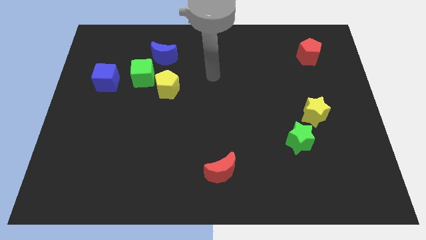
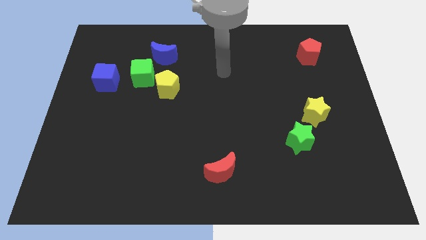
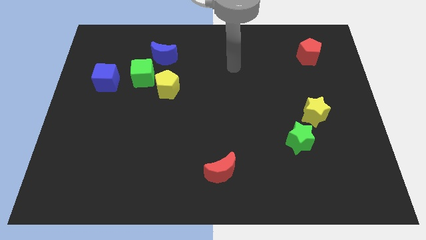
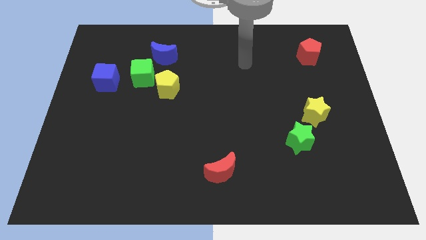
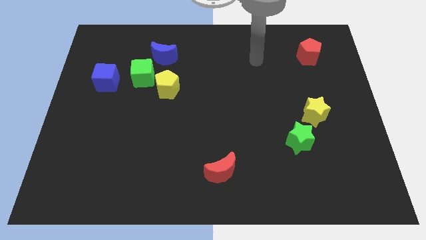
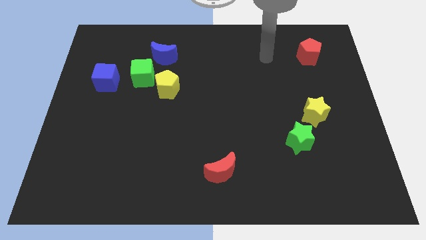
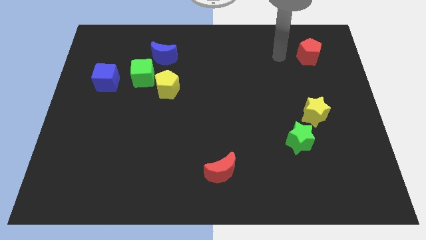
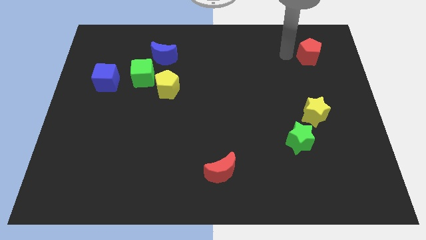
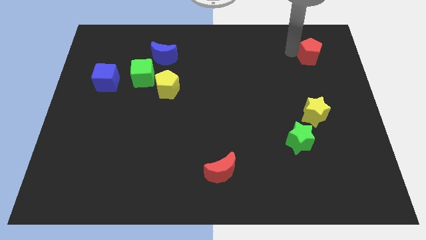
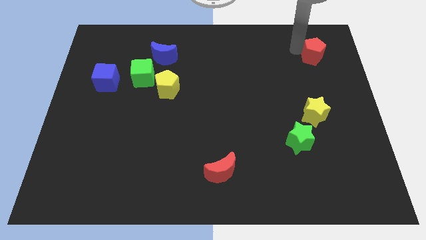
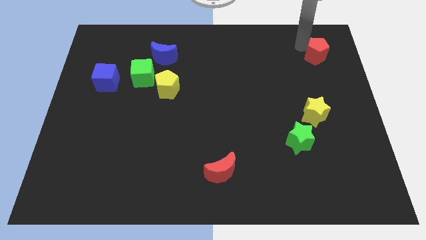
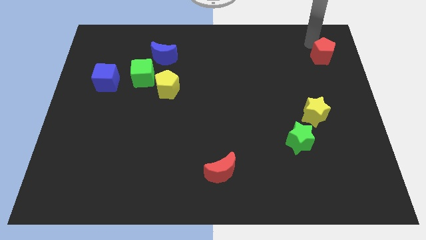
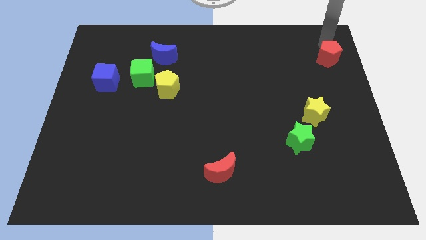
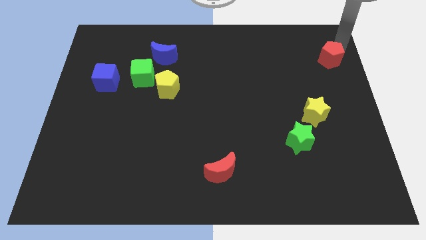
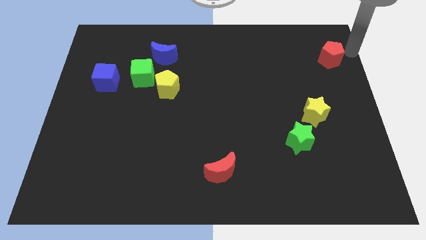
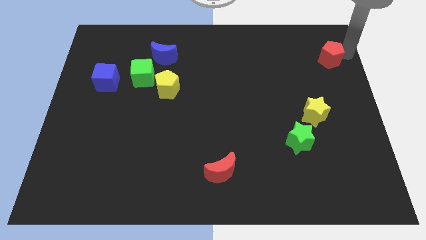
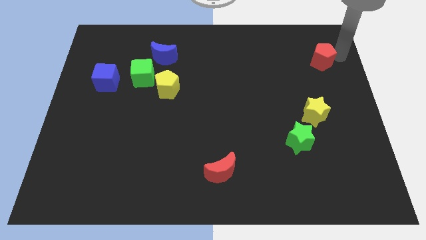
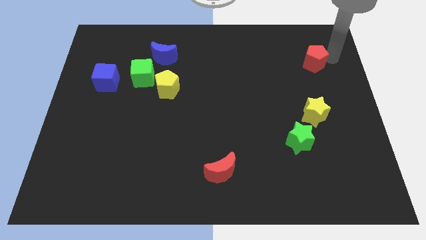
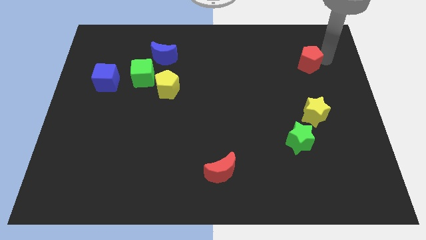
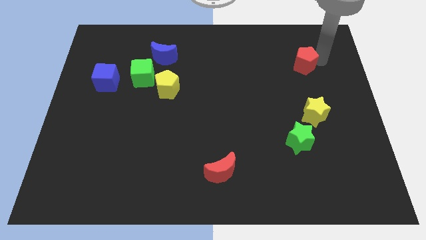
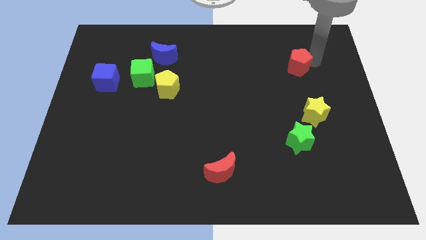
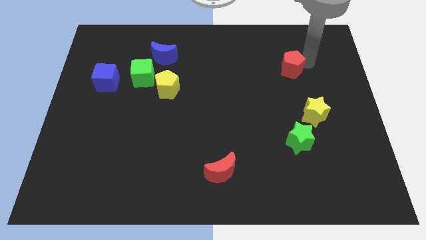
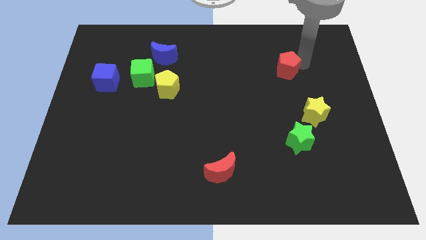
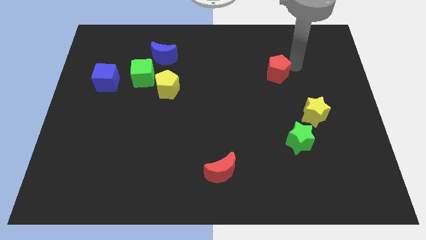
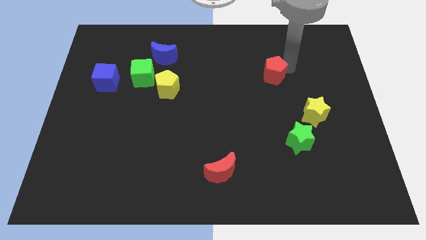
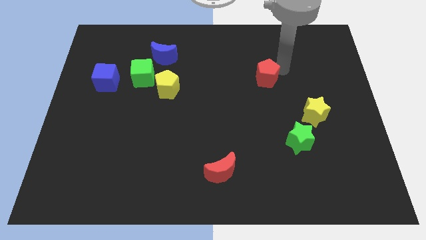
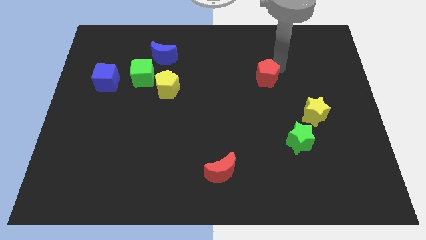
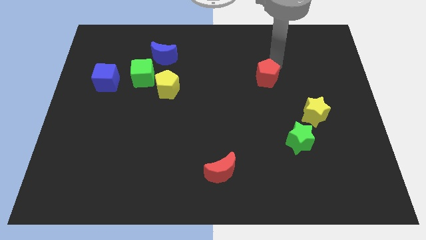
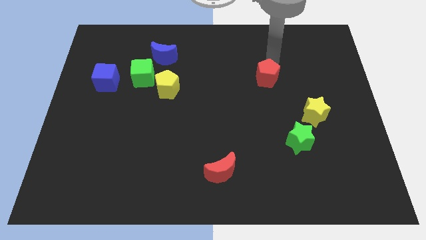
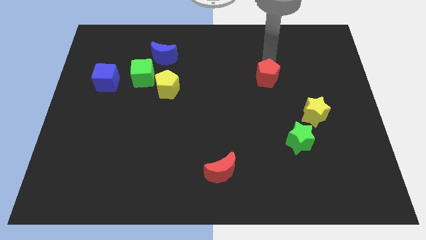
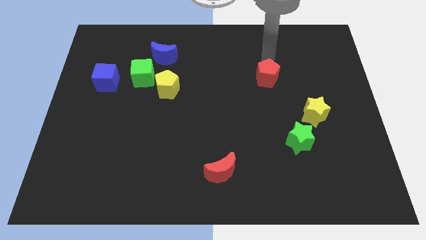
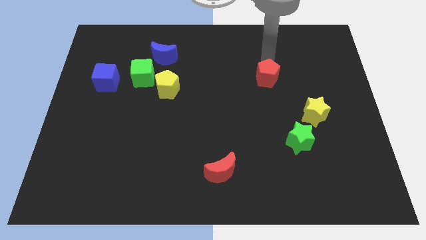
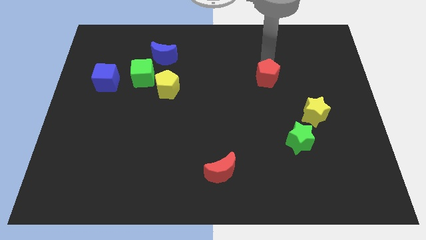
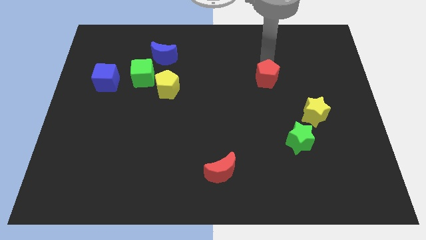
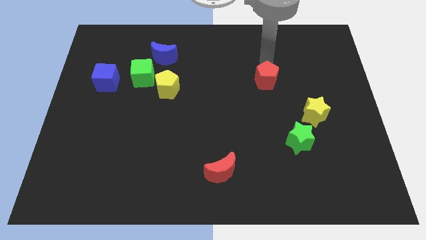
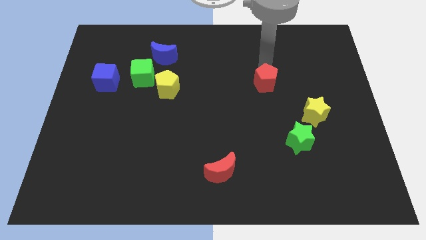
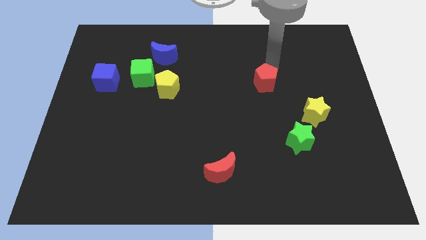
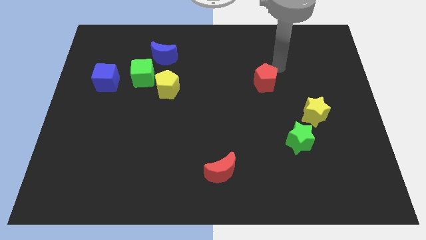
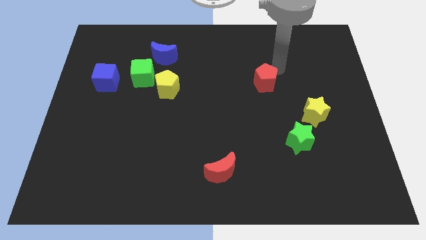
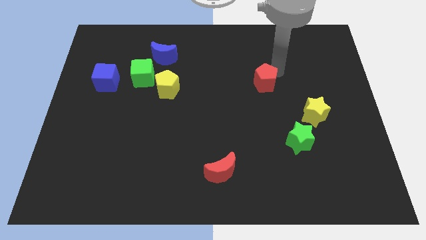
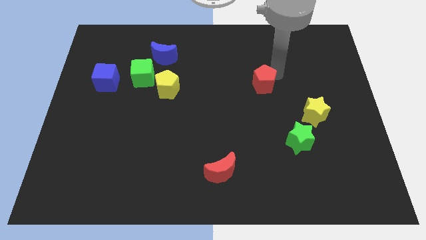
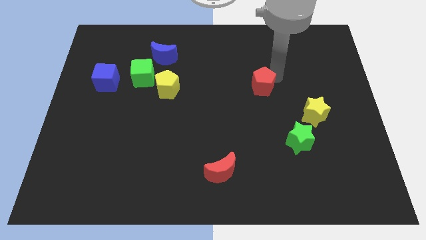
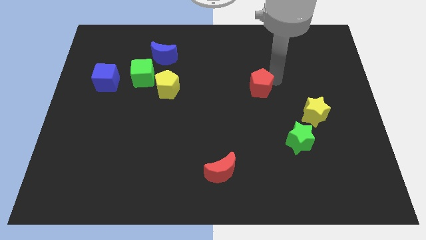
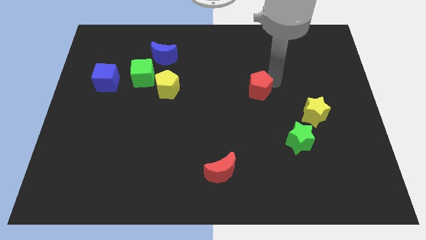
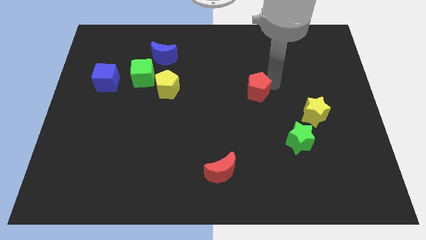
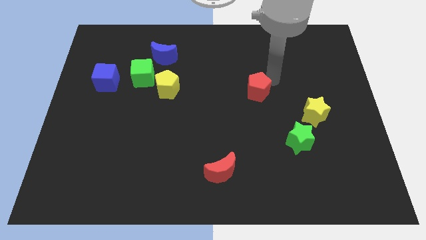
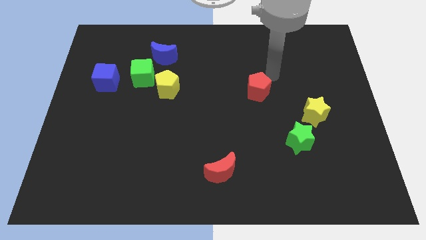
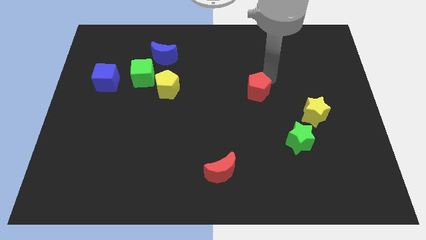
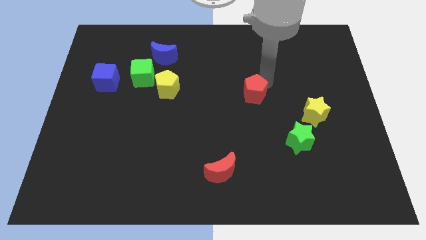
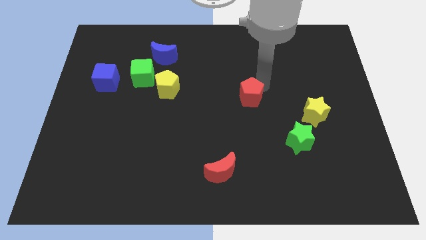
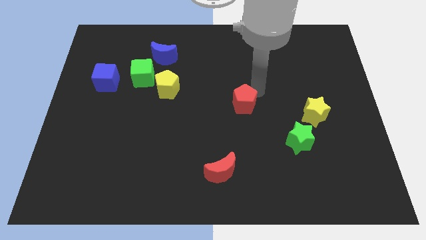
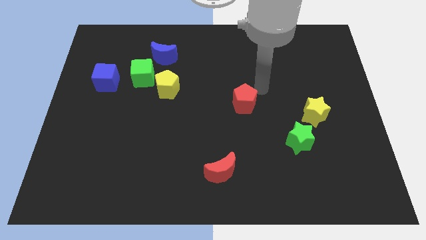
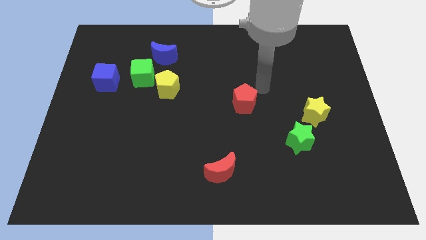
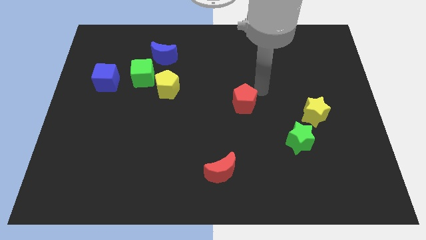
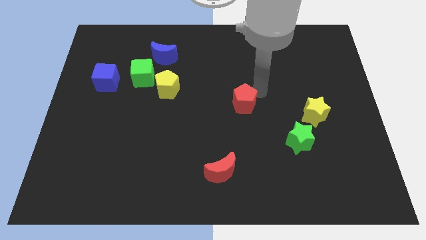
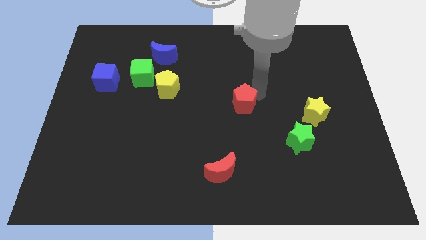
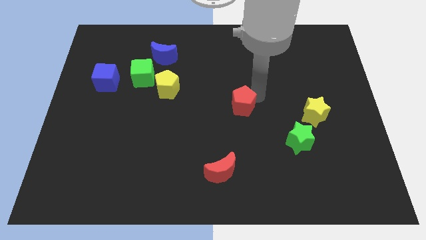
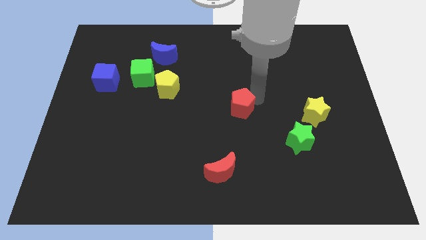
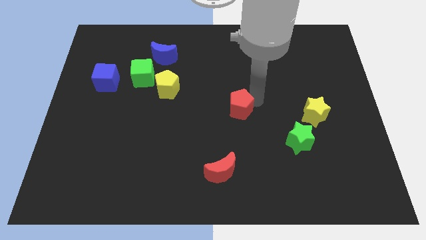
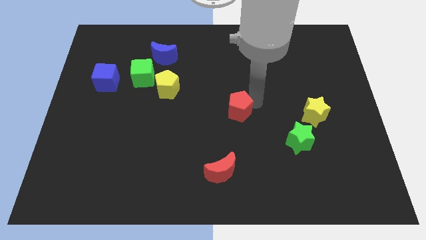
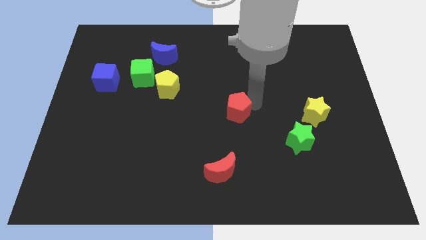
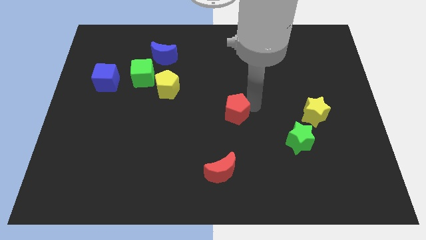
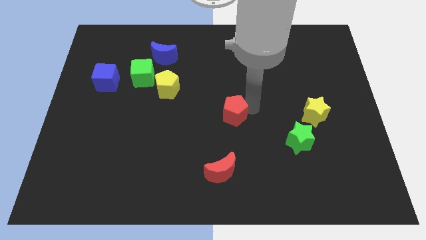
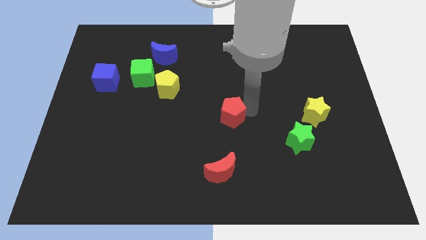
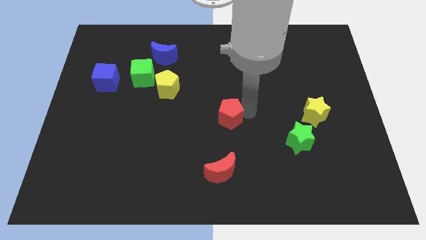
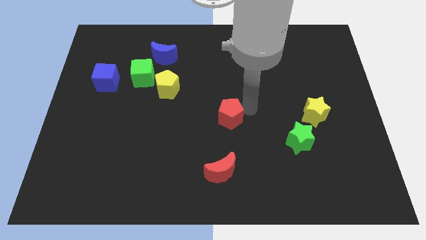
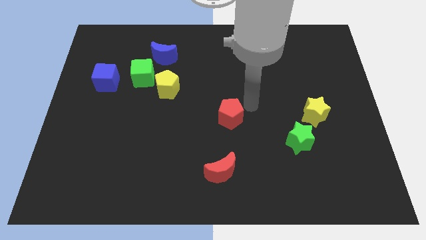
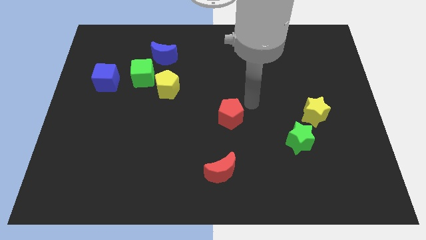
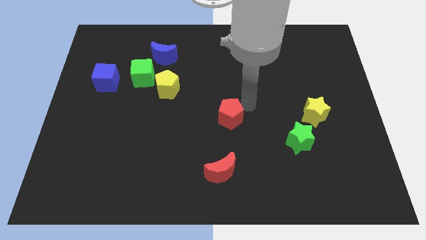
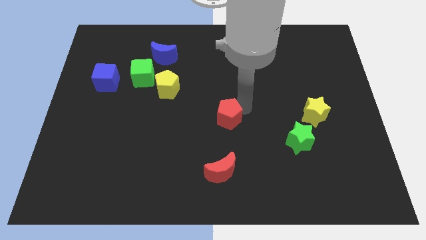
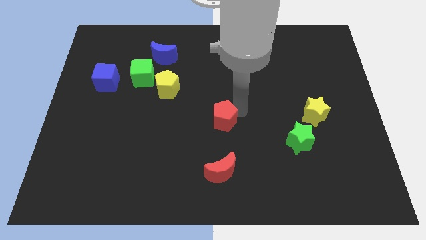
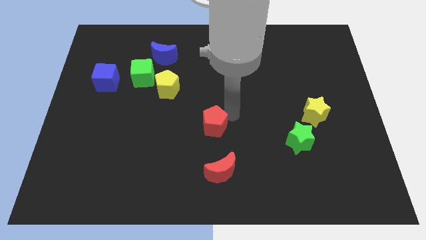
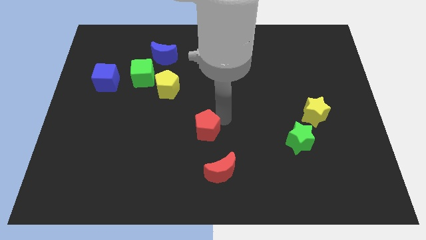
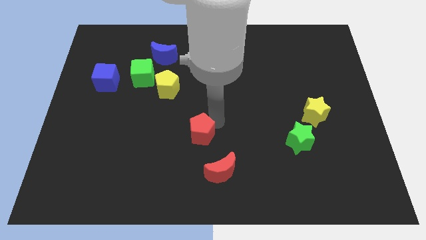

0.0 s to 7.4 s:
slide the red pentagon to the top left of the red moon

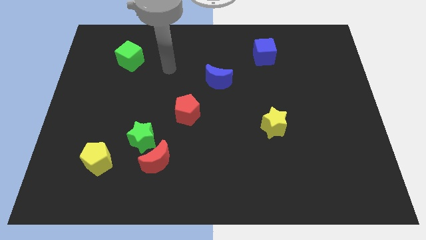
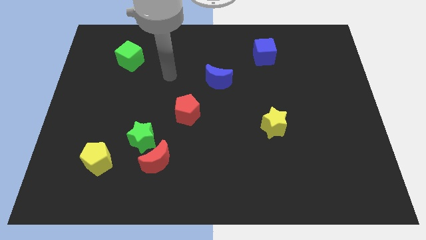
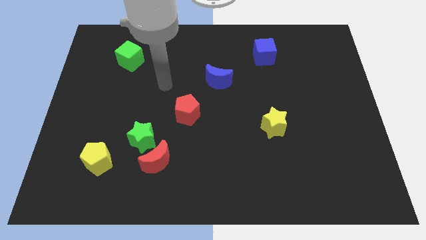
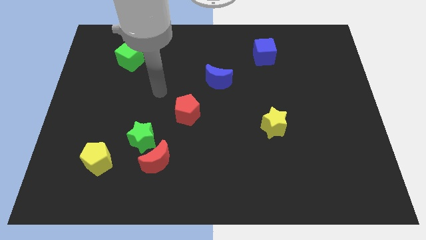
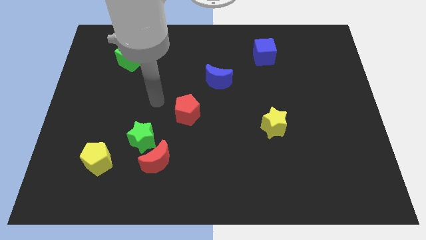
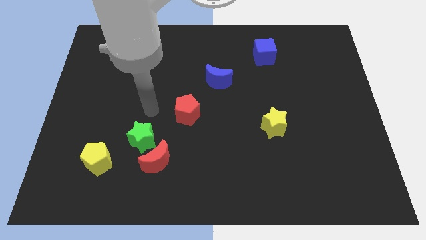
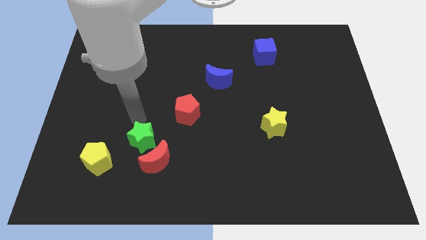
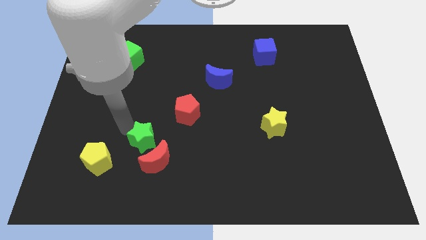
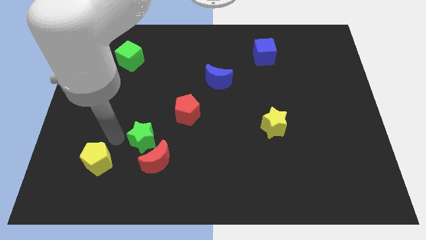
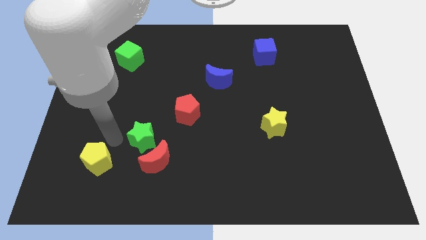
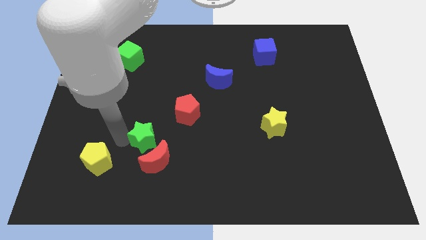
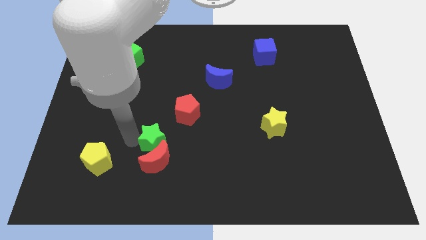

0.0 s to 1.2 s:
put the green star to the top right of the red moon
